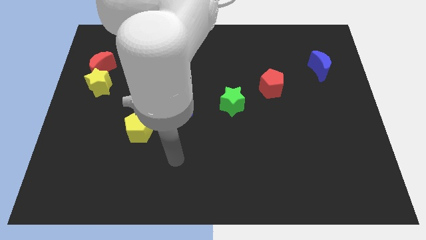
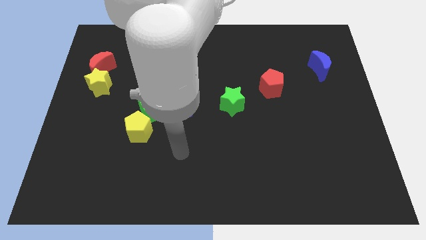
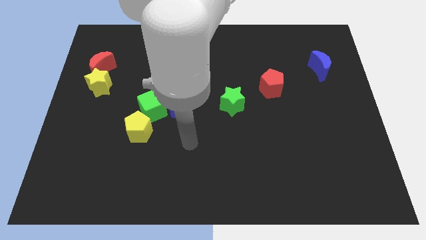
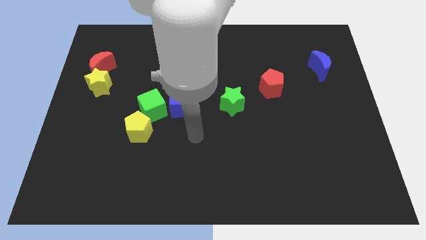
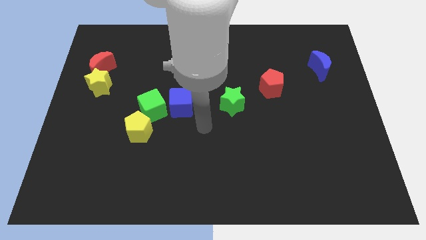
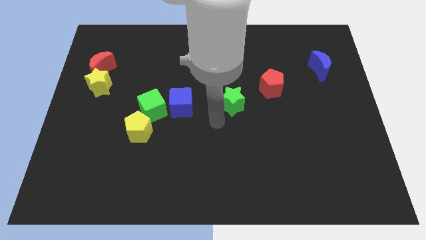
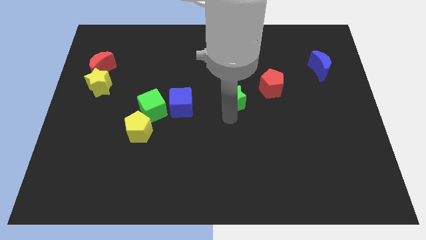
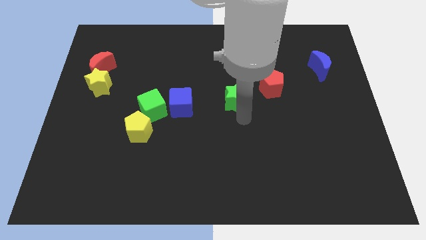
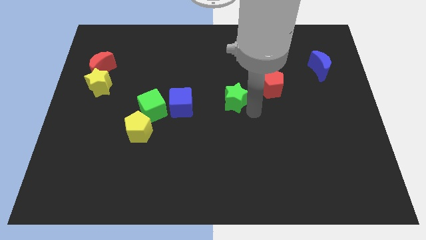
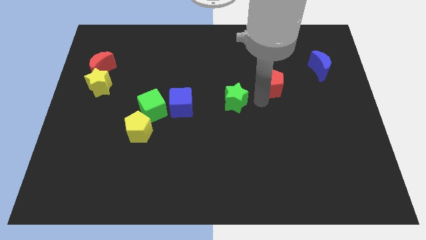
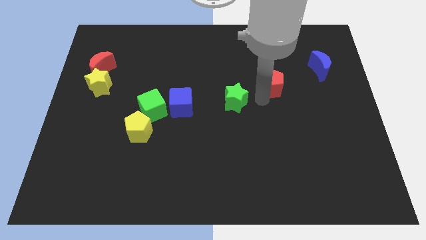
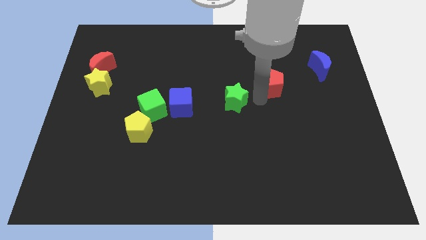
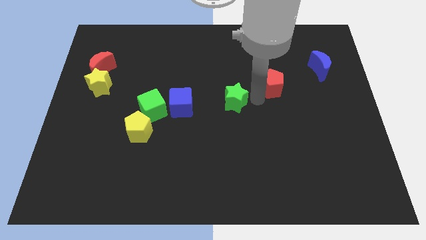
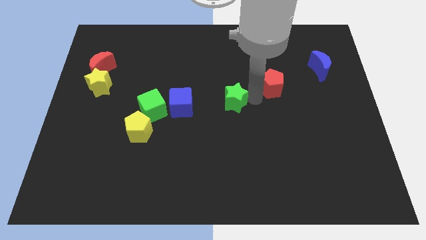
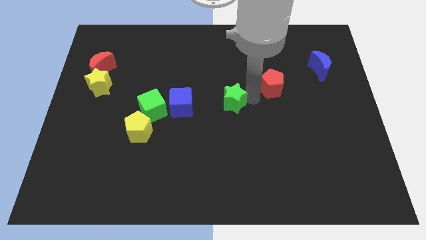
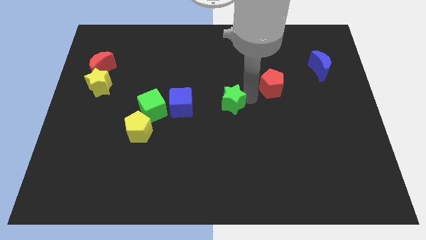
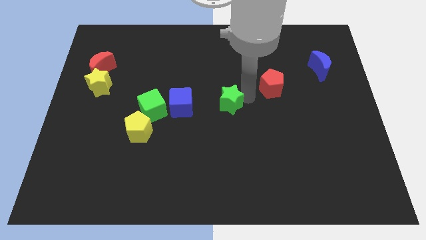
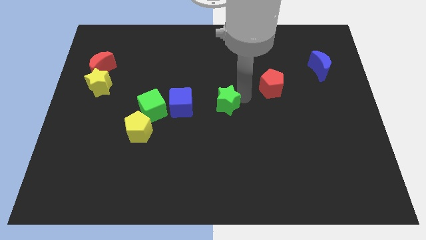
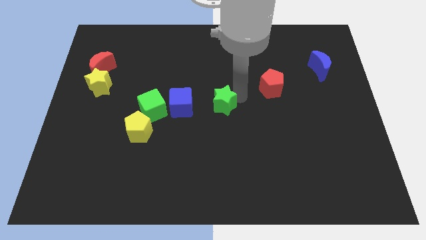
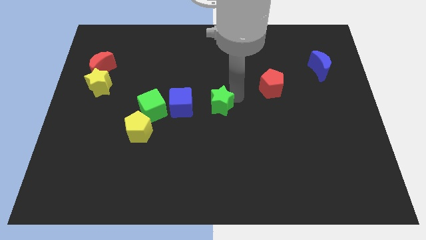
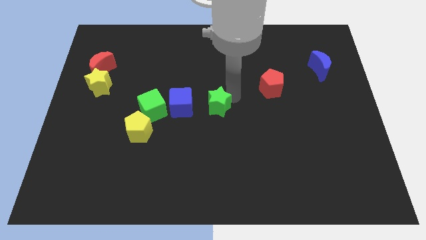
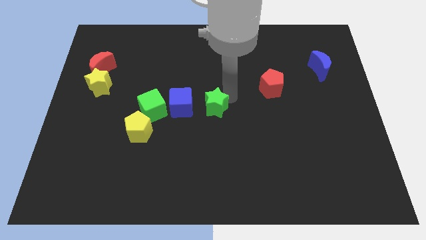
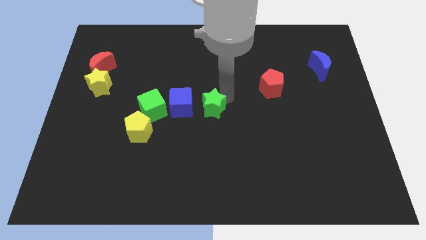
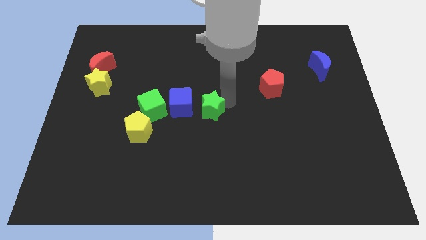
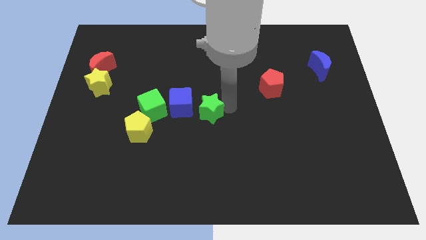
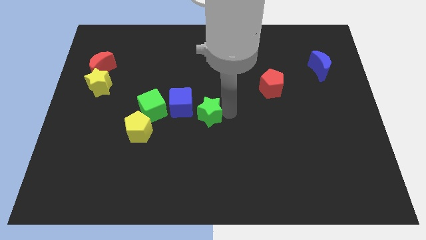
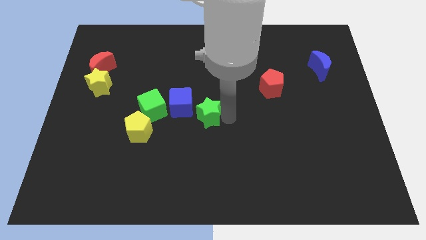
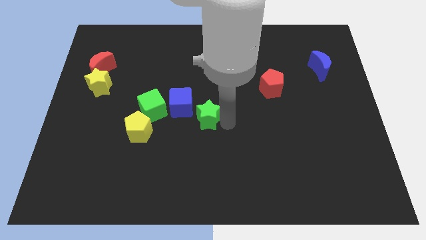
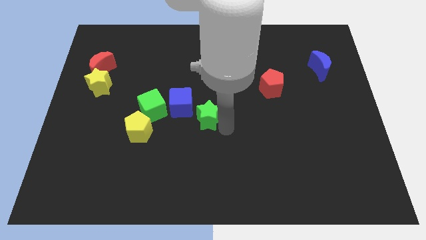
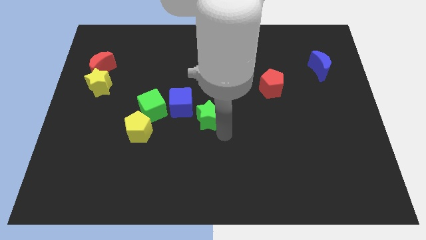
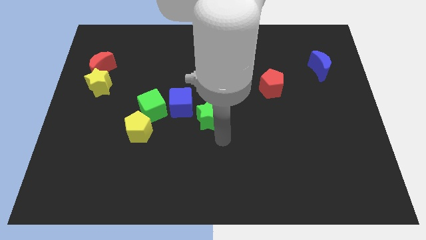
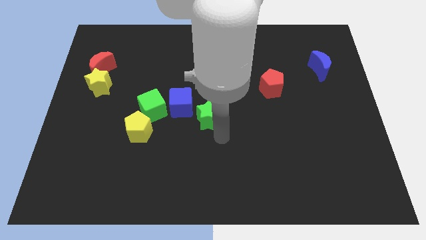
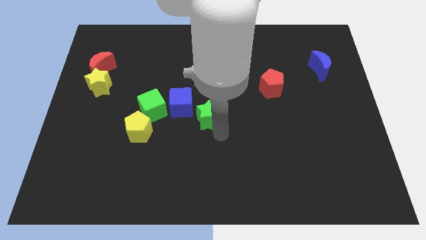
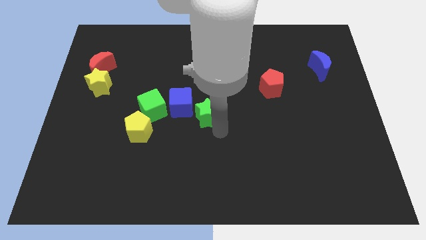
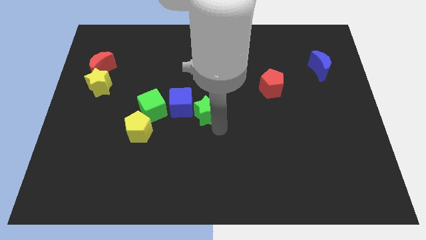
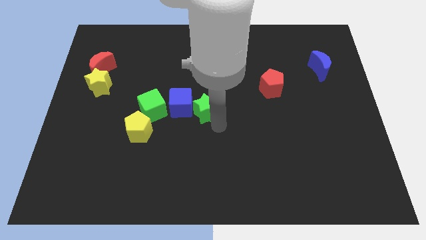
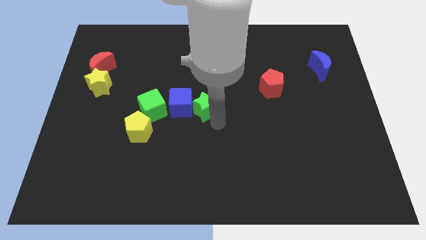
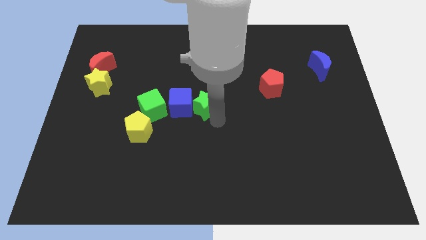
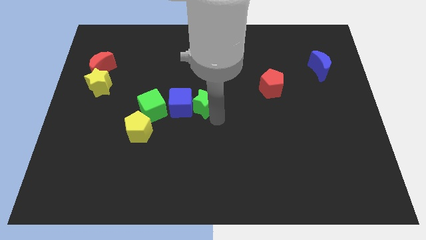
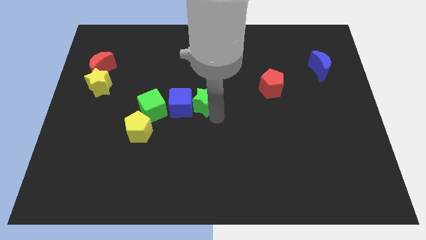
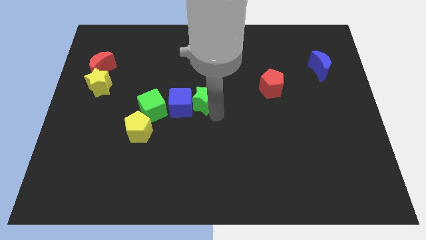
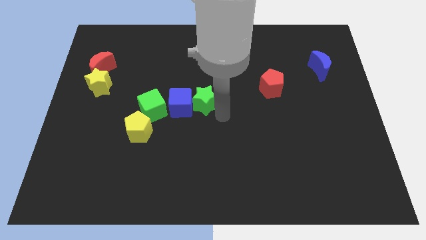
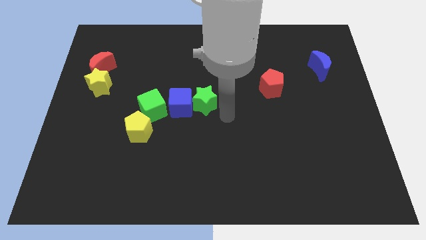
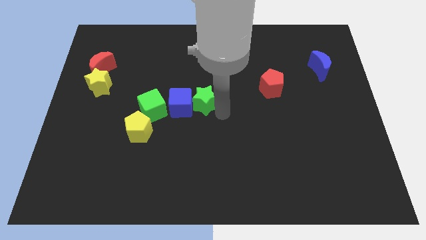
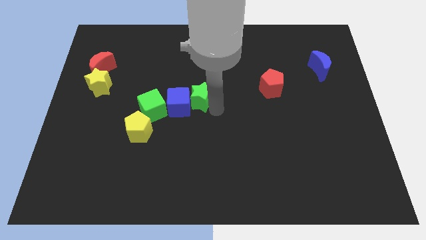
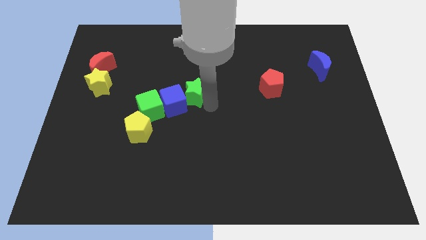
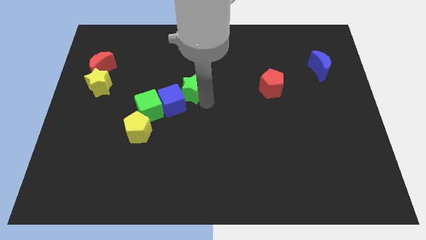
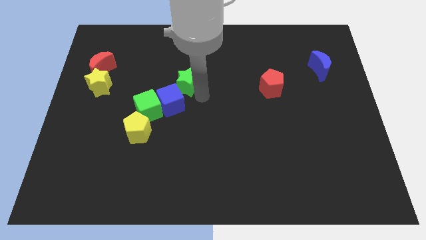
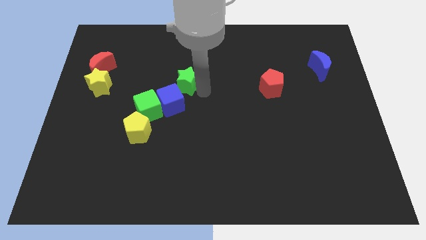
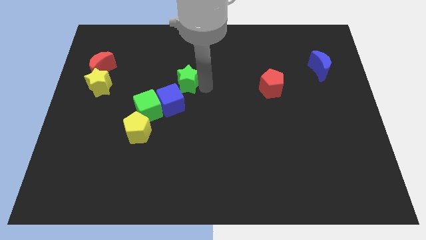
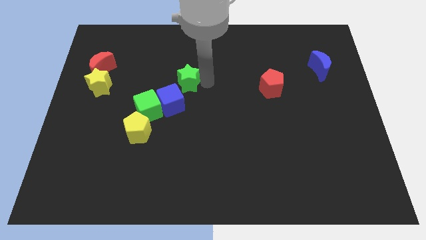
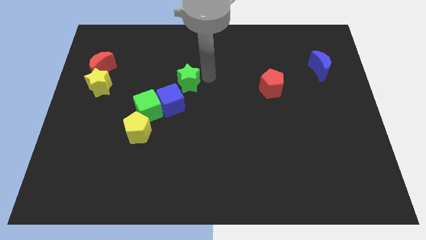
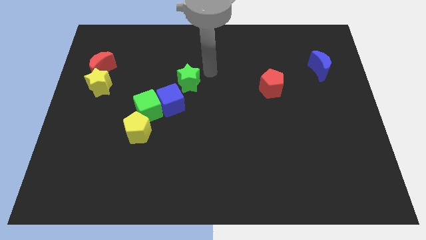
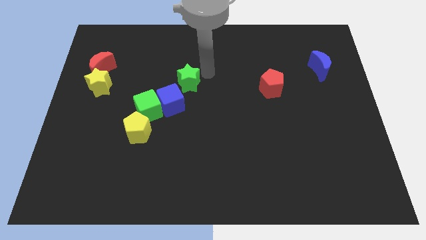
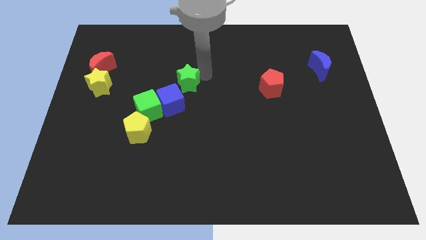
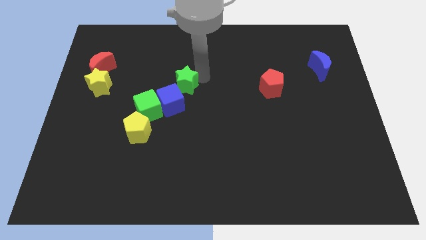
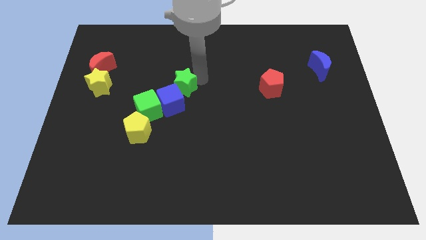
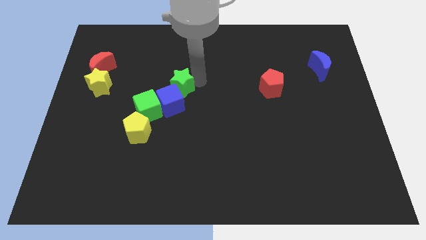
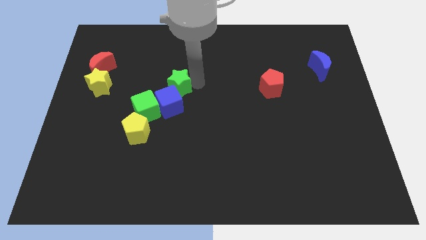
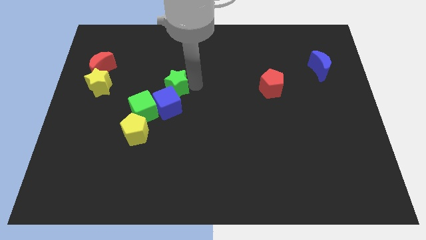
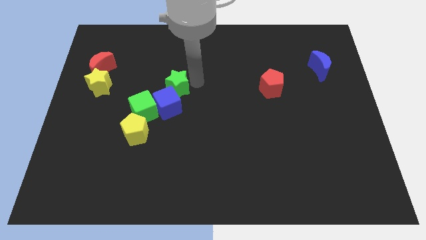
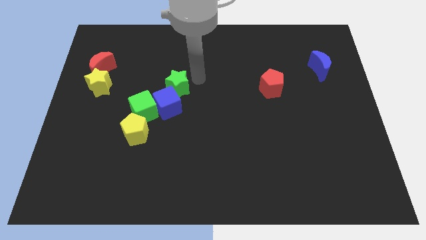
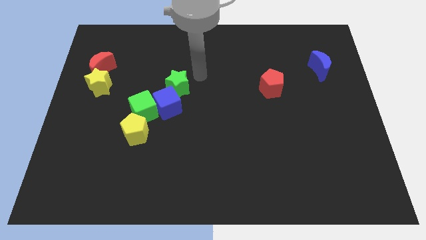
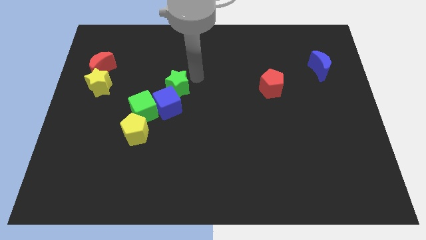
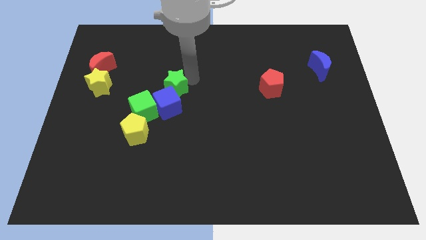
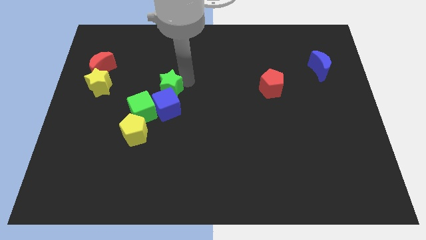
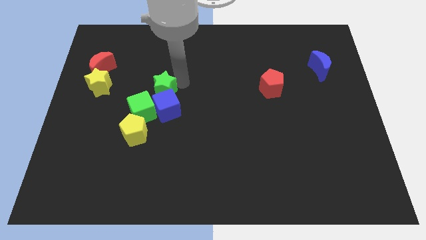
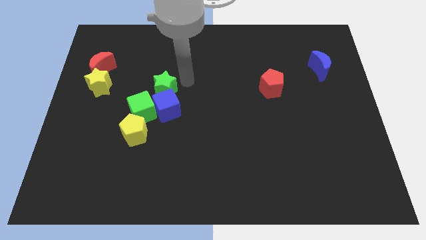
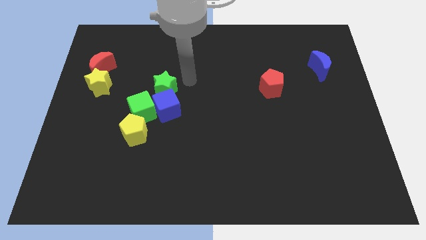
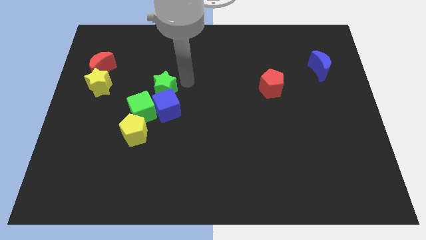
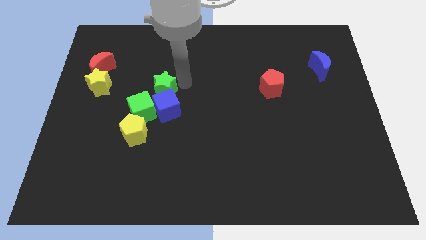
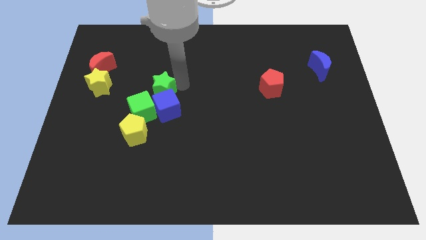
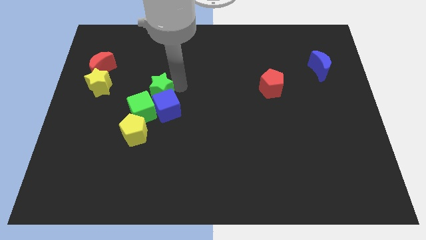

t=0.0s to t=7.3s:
slide the green star above the yellow pentagon
